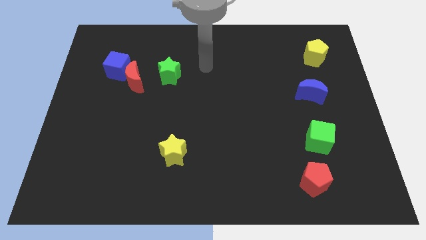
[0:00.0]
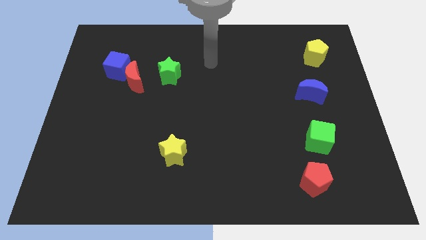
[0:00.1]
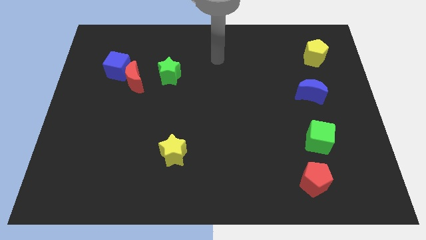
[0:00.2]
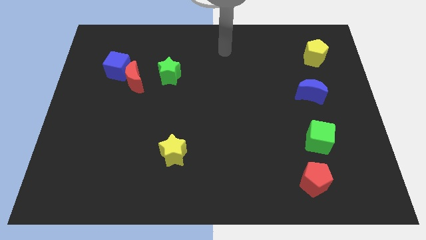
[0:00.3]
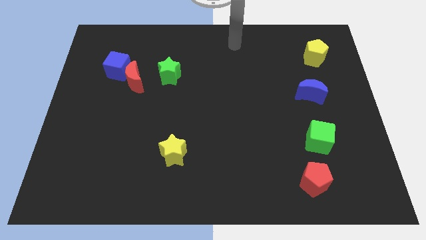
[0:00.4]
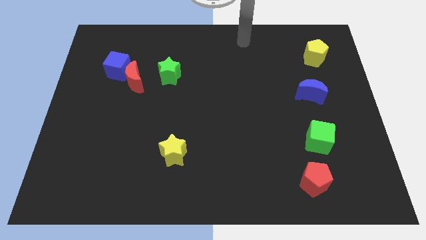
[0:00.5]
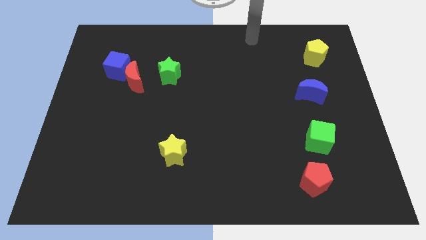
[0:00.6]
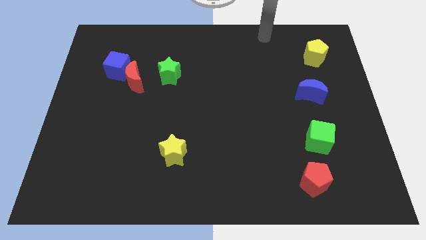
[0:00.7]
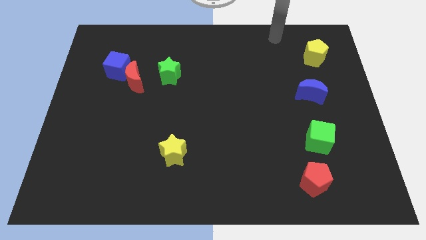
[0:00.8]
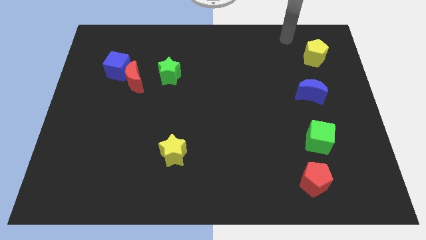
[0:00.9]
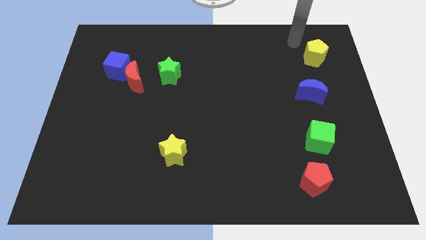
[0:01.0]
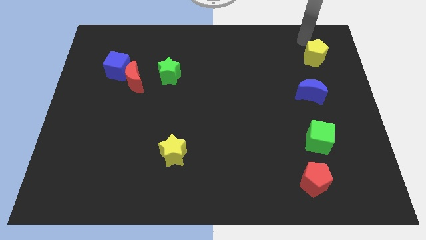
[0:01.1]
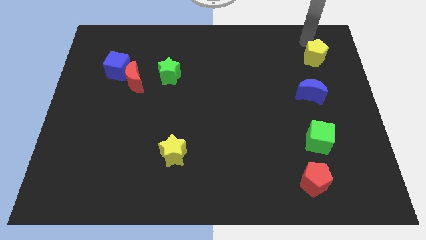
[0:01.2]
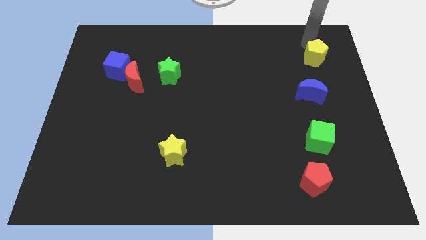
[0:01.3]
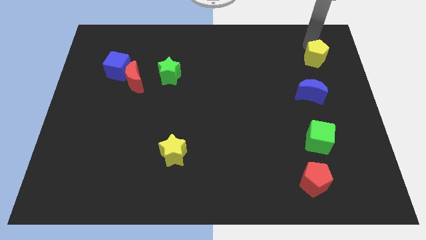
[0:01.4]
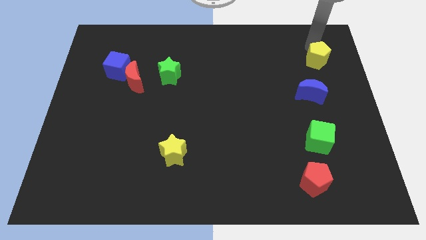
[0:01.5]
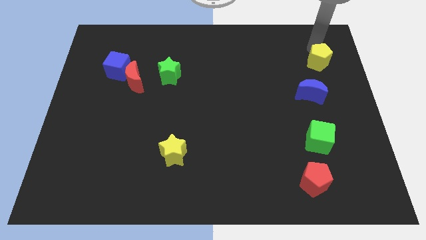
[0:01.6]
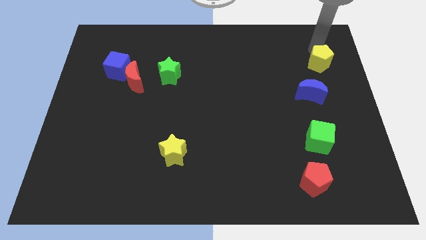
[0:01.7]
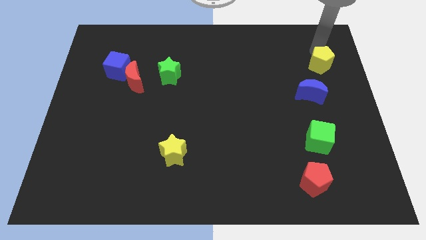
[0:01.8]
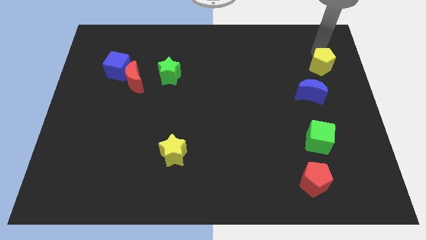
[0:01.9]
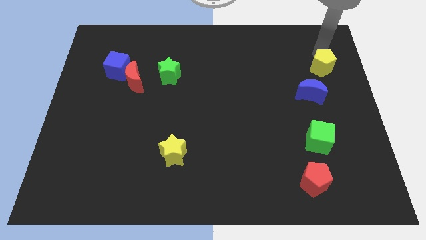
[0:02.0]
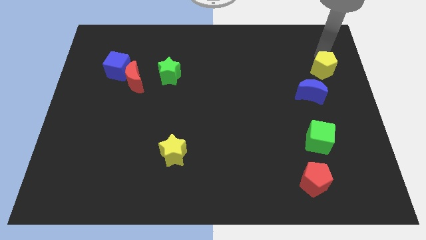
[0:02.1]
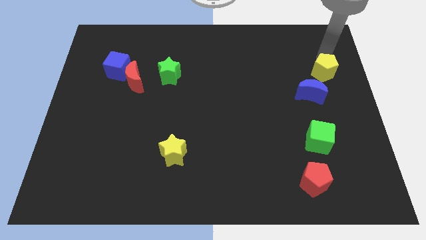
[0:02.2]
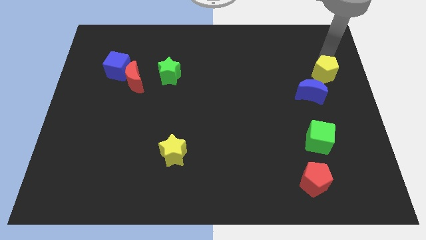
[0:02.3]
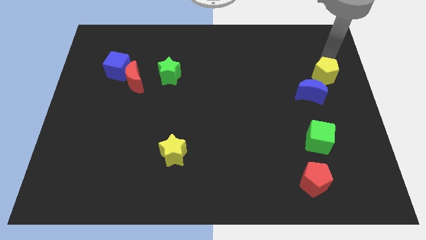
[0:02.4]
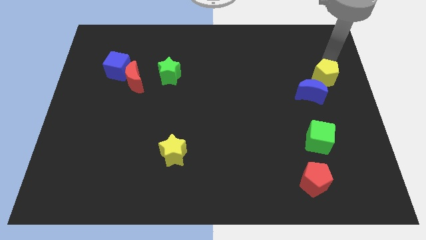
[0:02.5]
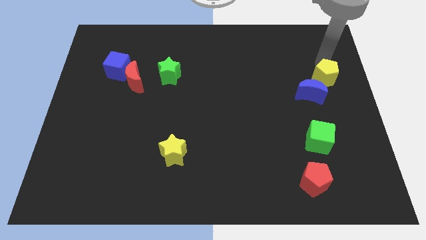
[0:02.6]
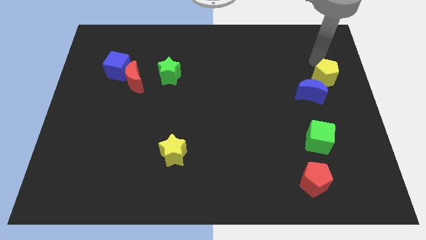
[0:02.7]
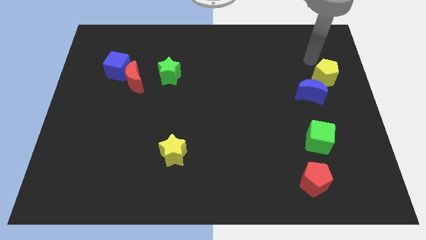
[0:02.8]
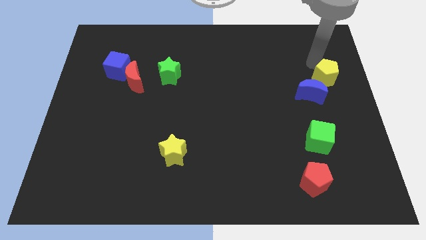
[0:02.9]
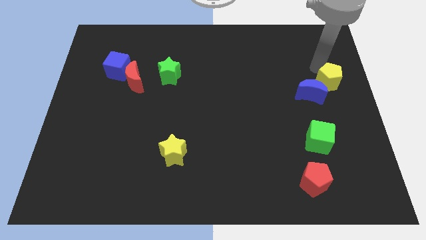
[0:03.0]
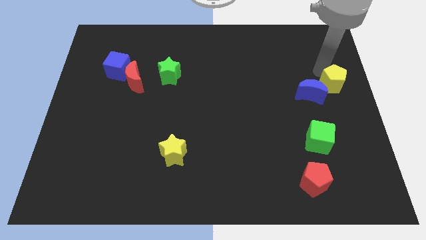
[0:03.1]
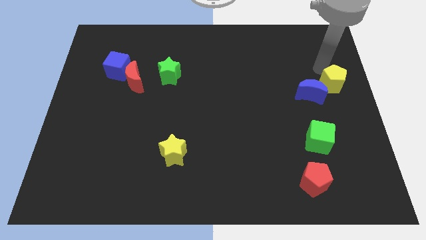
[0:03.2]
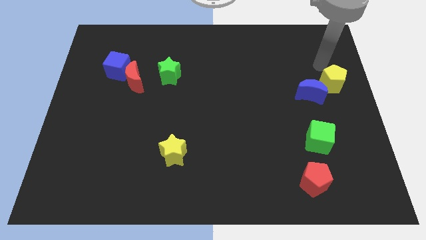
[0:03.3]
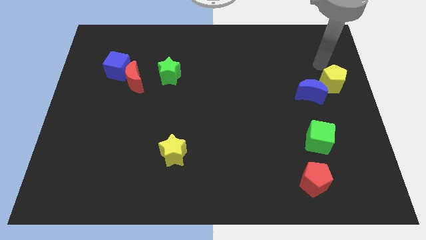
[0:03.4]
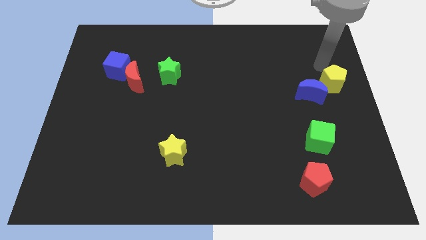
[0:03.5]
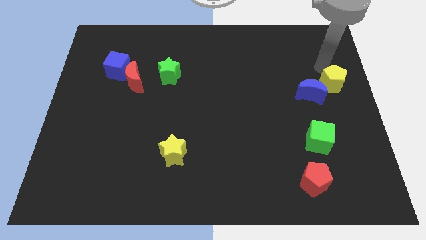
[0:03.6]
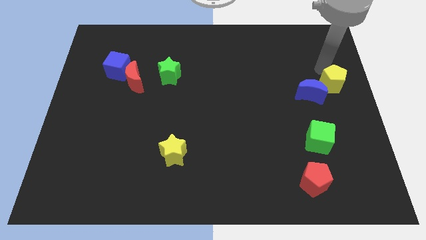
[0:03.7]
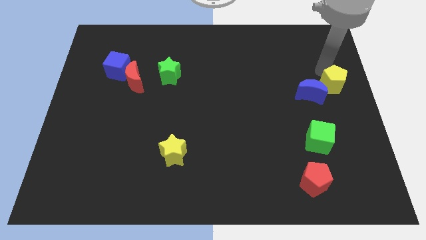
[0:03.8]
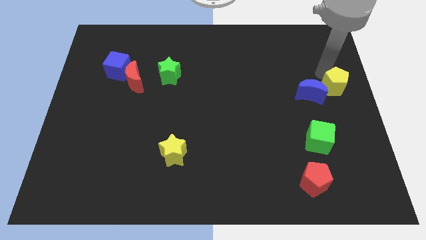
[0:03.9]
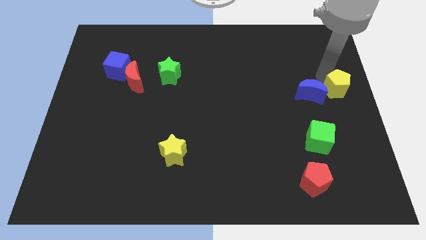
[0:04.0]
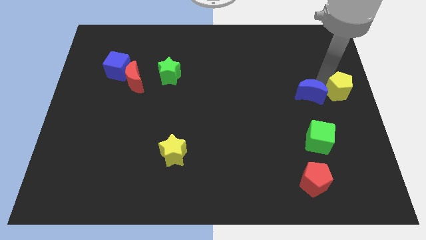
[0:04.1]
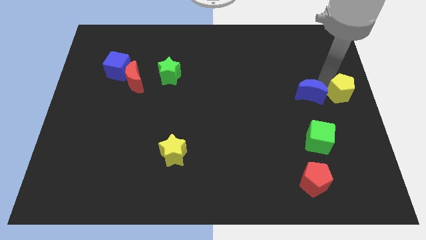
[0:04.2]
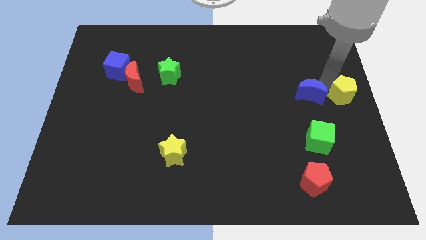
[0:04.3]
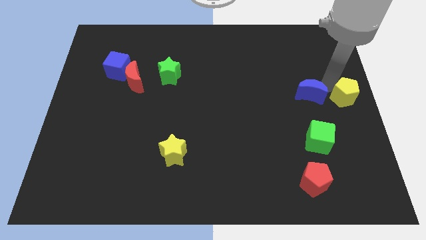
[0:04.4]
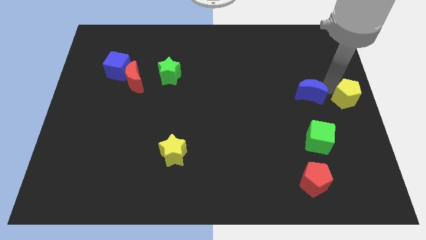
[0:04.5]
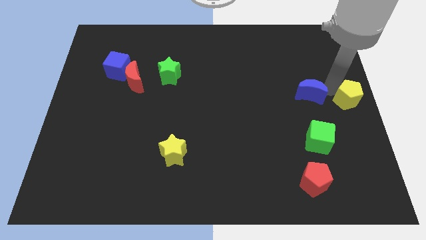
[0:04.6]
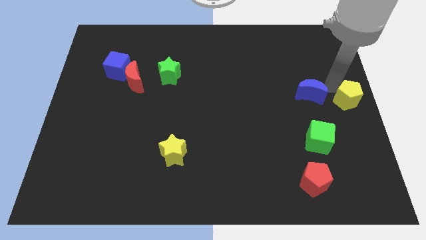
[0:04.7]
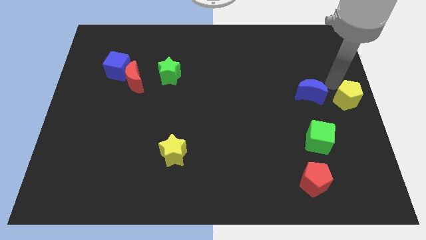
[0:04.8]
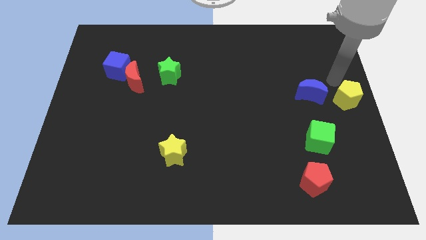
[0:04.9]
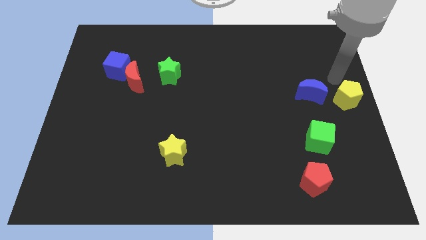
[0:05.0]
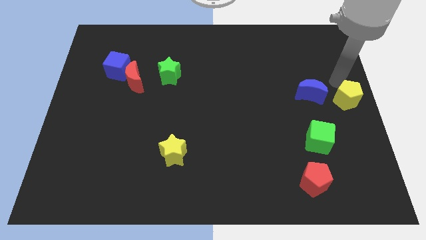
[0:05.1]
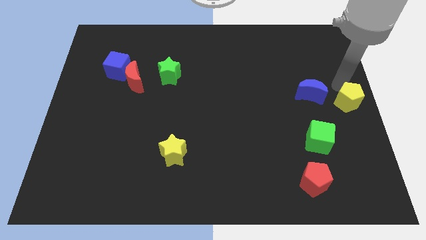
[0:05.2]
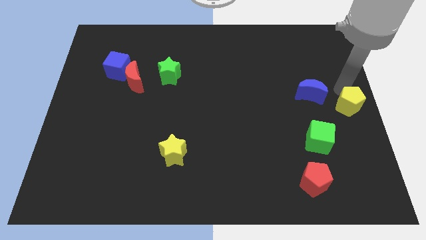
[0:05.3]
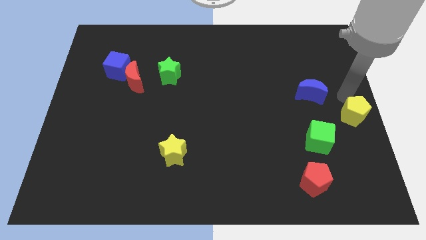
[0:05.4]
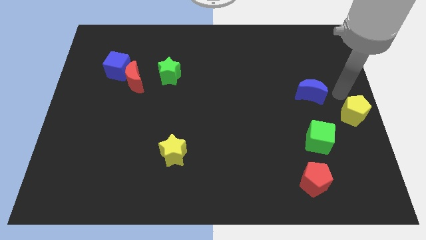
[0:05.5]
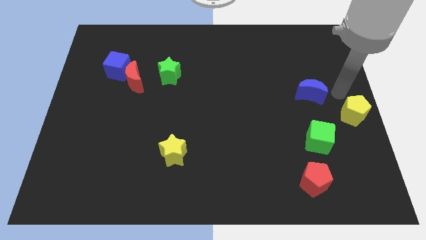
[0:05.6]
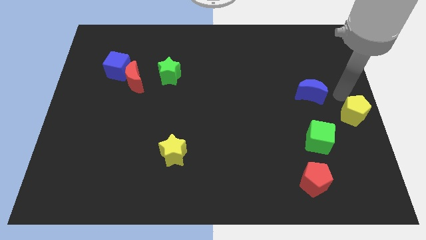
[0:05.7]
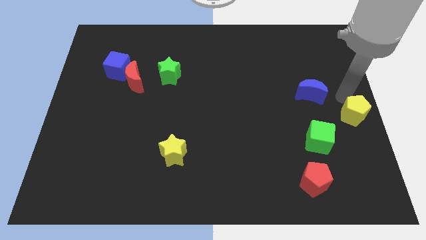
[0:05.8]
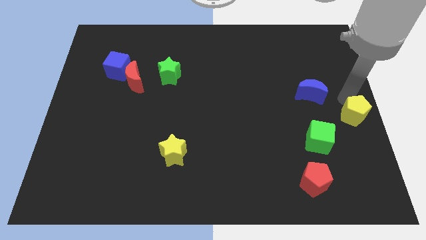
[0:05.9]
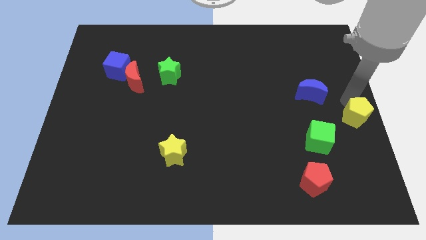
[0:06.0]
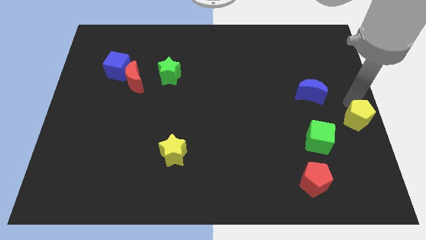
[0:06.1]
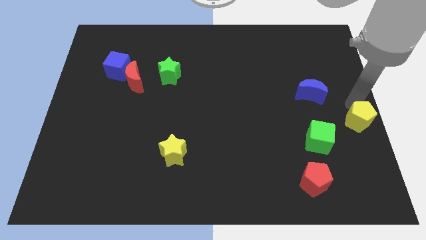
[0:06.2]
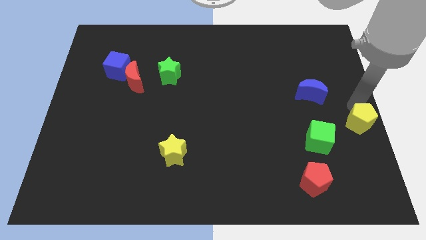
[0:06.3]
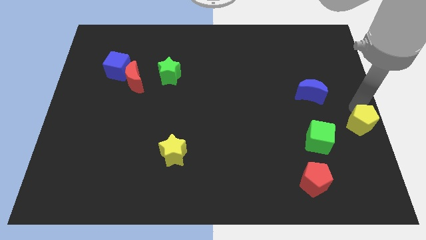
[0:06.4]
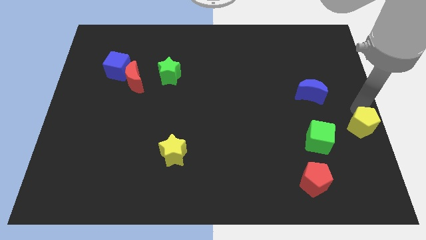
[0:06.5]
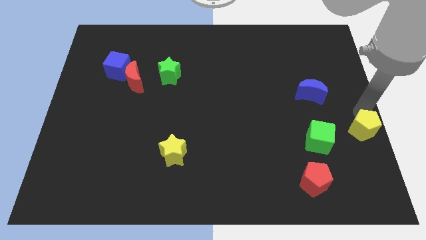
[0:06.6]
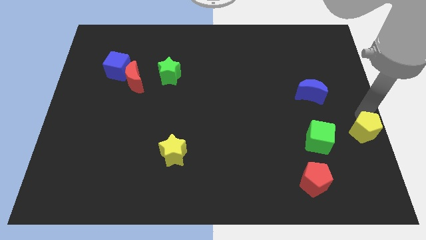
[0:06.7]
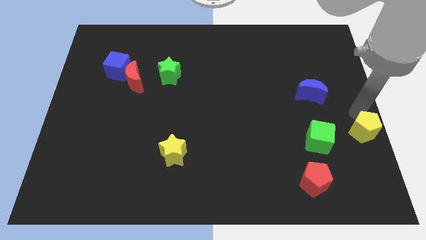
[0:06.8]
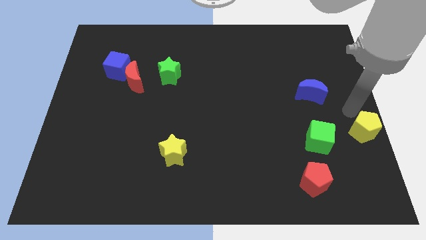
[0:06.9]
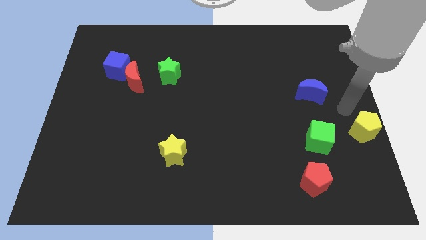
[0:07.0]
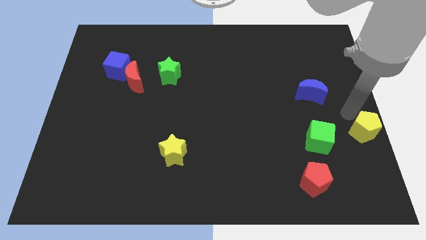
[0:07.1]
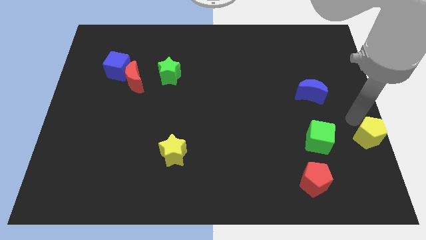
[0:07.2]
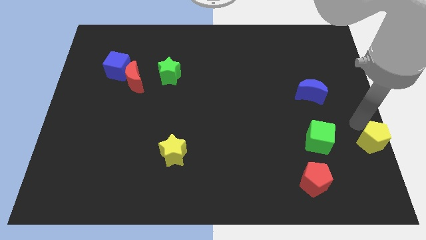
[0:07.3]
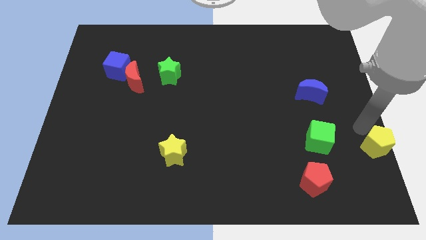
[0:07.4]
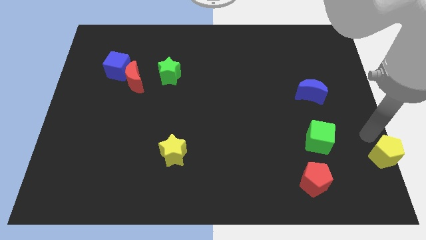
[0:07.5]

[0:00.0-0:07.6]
put the yellow pentagon to the bottom right corner
